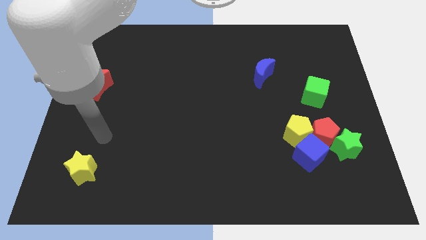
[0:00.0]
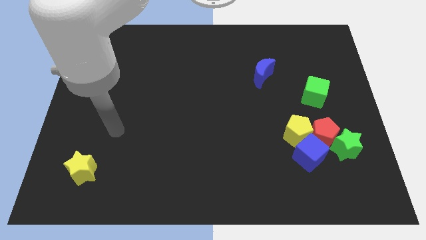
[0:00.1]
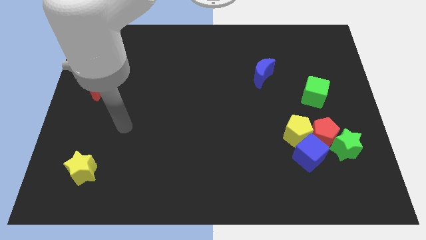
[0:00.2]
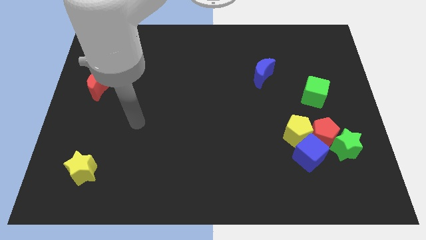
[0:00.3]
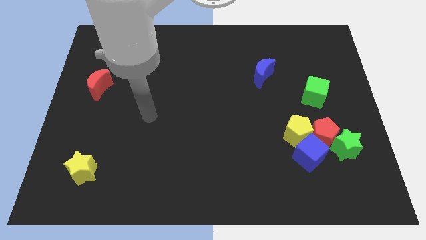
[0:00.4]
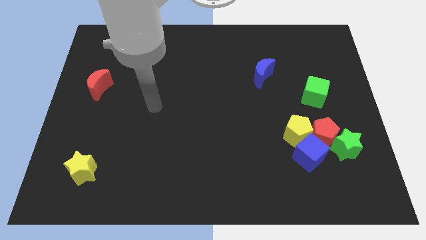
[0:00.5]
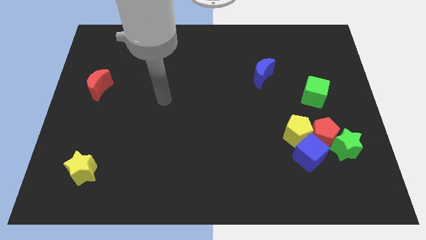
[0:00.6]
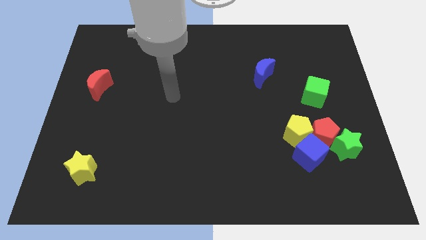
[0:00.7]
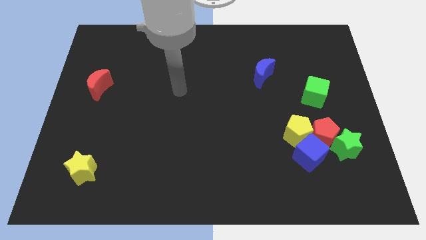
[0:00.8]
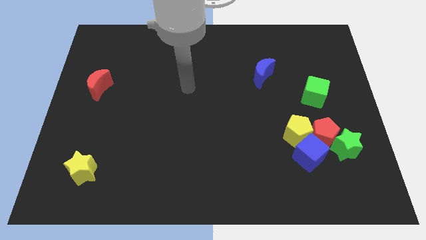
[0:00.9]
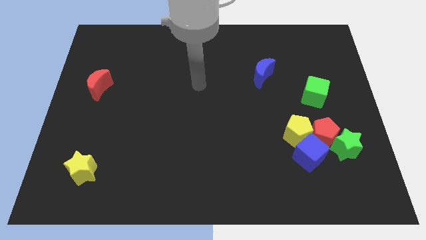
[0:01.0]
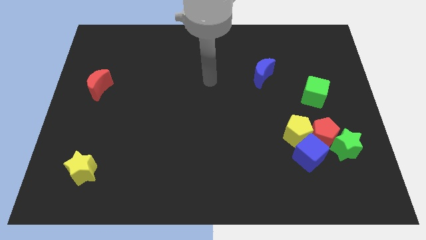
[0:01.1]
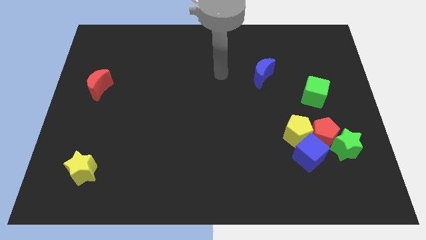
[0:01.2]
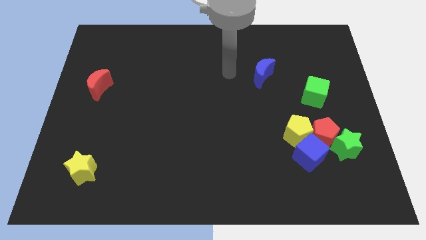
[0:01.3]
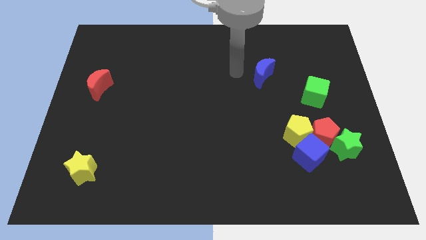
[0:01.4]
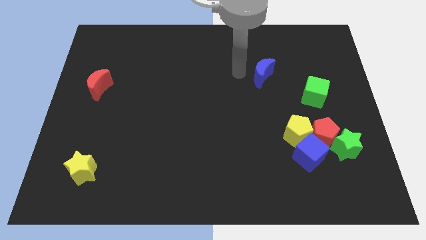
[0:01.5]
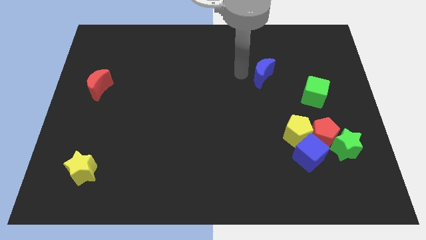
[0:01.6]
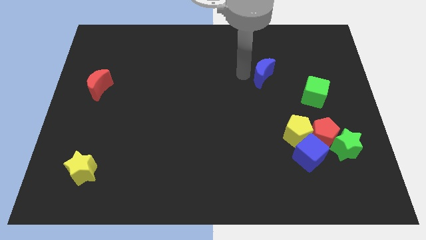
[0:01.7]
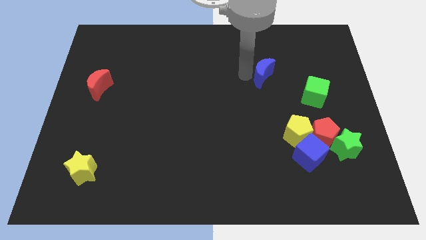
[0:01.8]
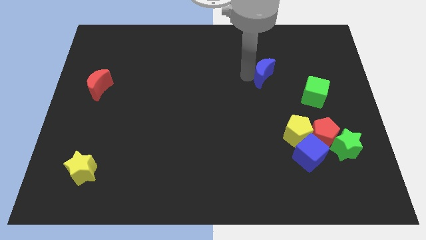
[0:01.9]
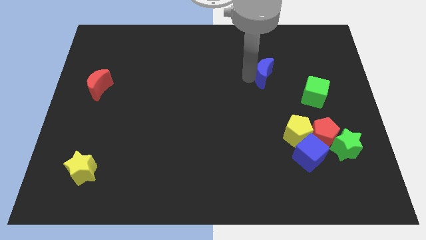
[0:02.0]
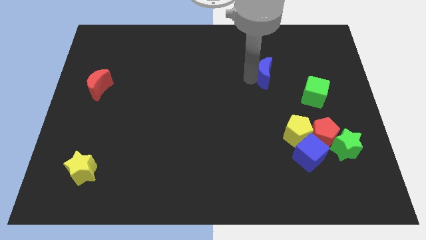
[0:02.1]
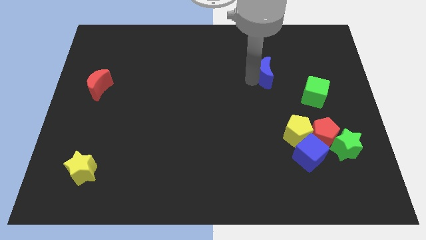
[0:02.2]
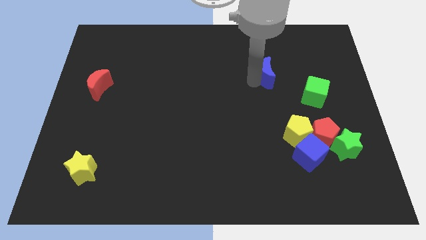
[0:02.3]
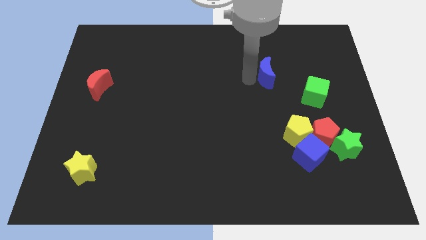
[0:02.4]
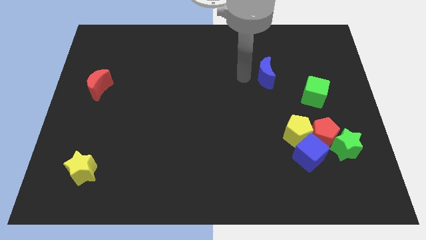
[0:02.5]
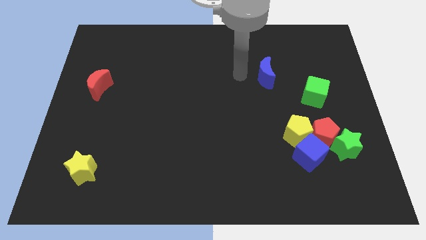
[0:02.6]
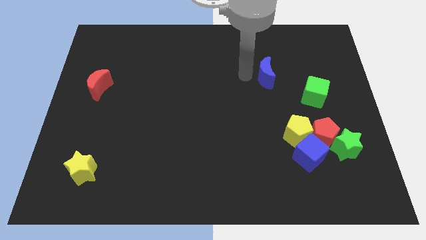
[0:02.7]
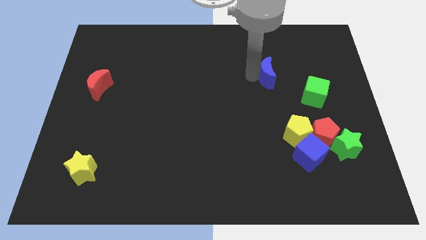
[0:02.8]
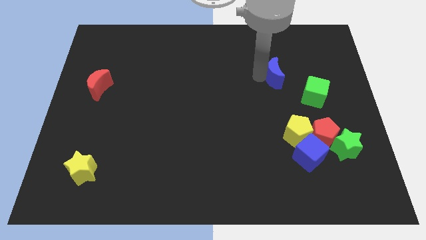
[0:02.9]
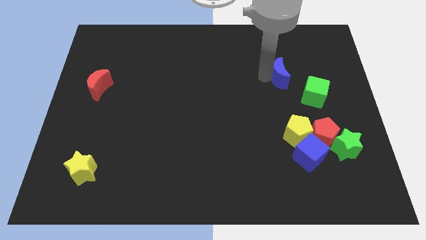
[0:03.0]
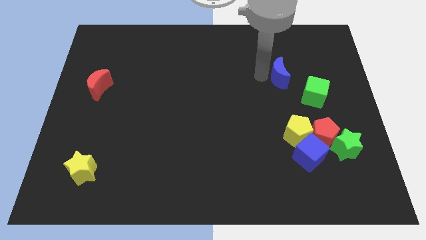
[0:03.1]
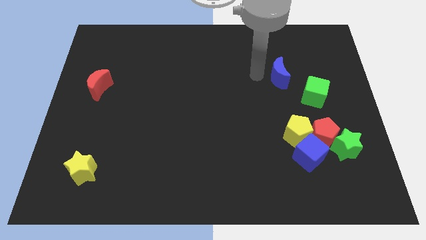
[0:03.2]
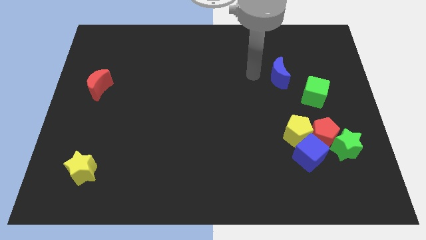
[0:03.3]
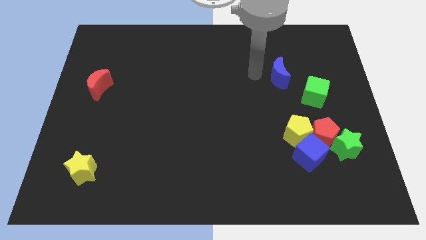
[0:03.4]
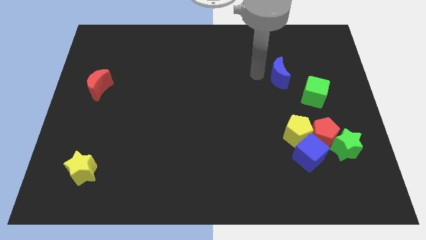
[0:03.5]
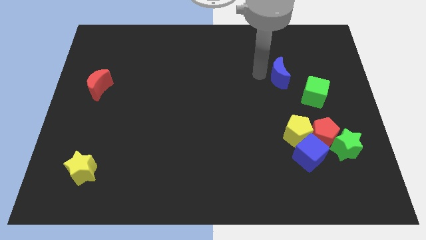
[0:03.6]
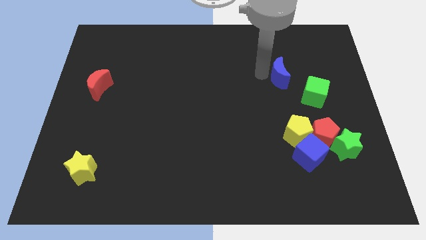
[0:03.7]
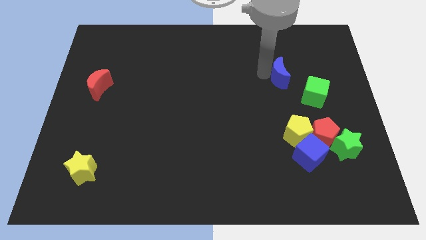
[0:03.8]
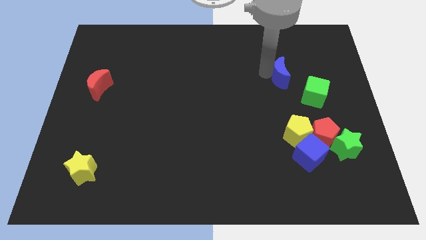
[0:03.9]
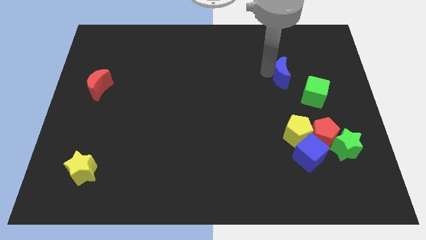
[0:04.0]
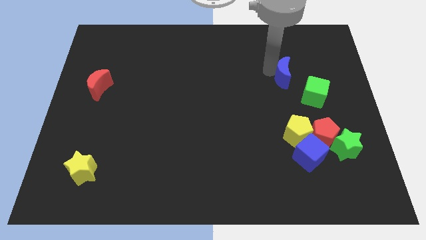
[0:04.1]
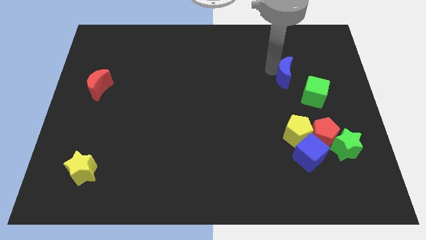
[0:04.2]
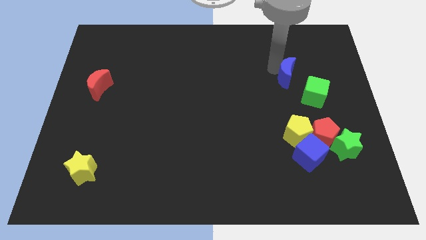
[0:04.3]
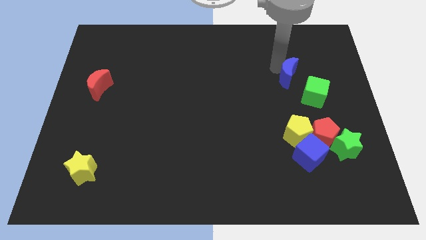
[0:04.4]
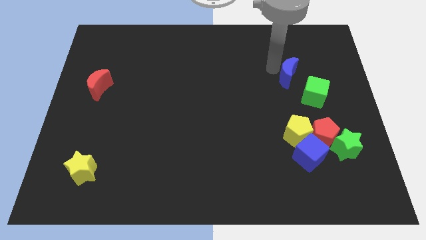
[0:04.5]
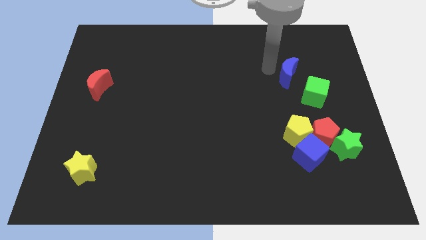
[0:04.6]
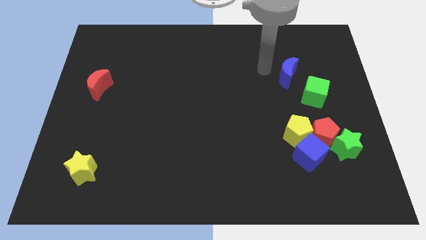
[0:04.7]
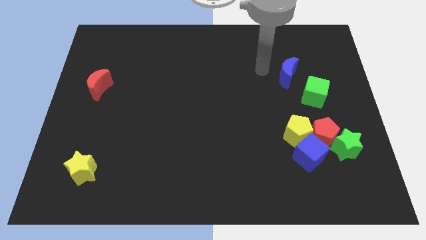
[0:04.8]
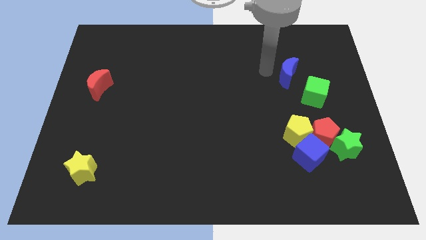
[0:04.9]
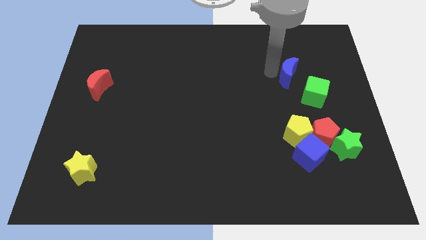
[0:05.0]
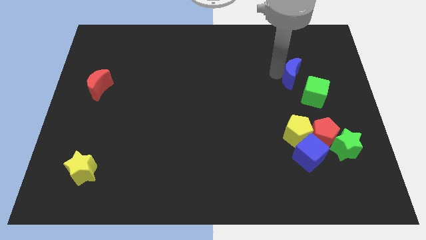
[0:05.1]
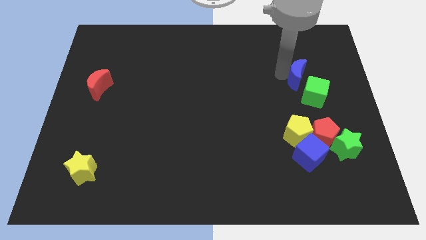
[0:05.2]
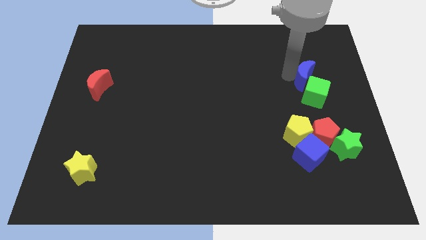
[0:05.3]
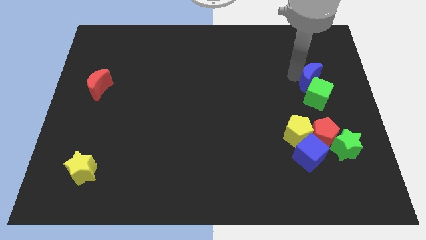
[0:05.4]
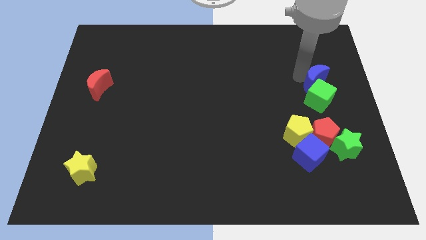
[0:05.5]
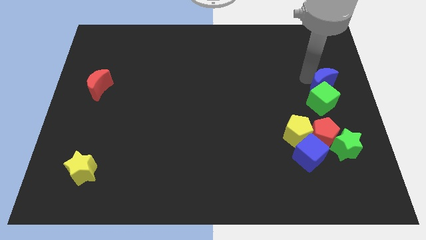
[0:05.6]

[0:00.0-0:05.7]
push the blue moon to the center right

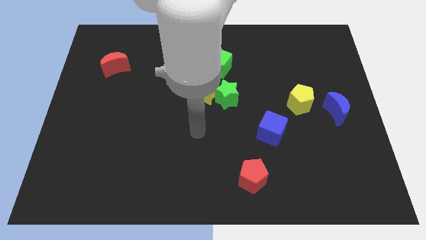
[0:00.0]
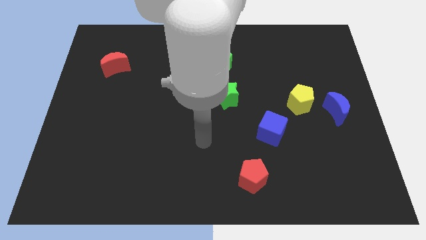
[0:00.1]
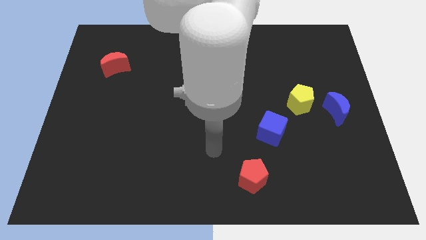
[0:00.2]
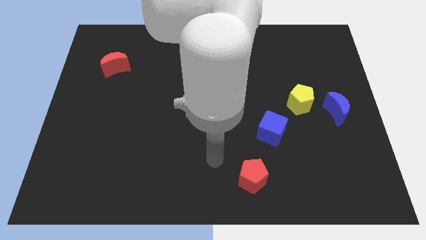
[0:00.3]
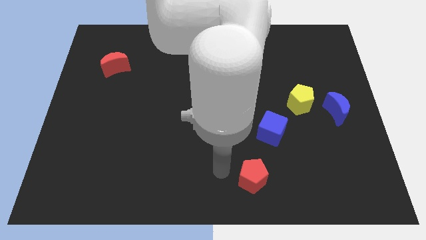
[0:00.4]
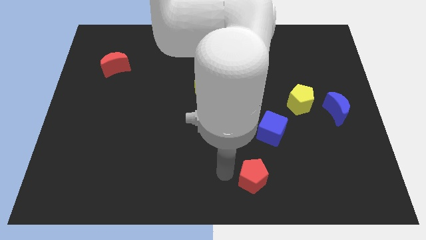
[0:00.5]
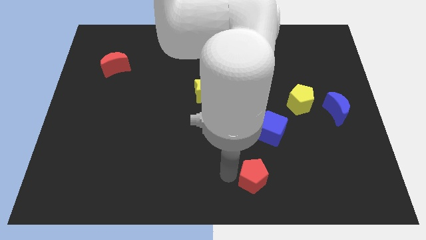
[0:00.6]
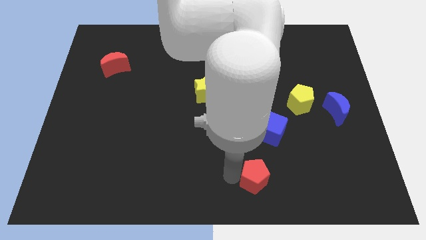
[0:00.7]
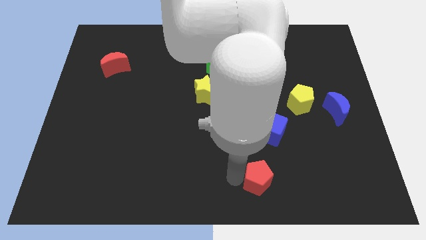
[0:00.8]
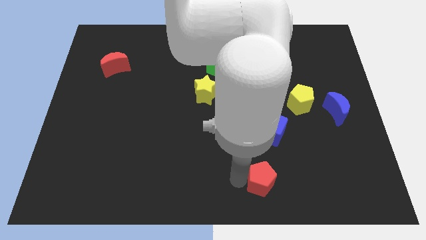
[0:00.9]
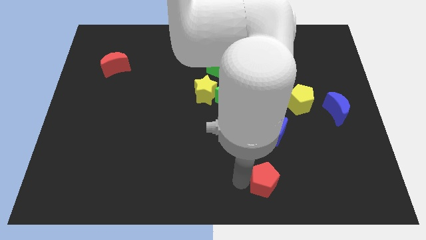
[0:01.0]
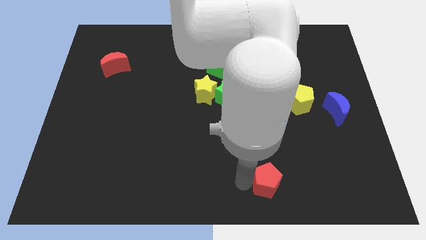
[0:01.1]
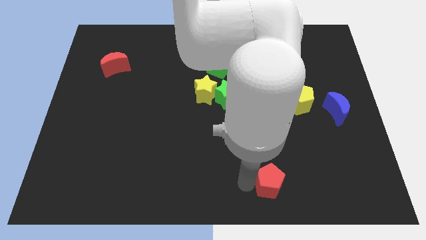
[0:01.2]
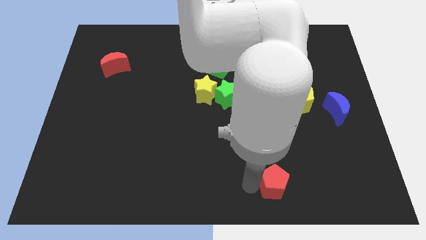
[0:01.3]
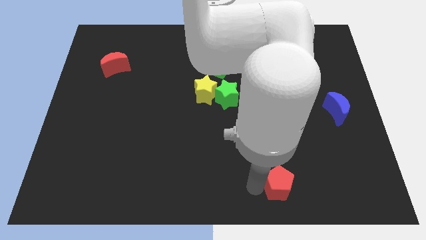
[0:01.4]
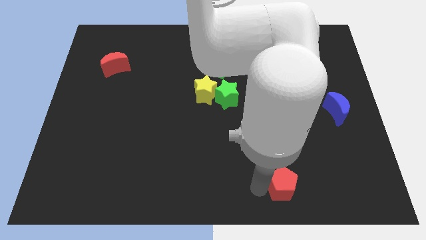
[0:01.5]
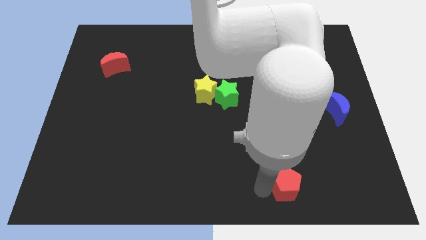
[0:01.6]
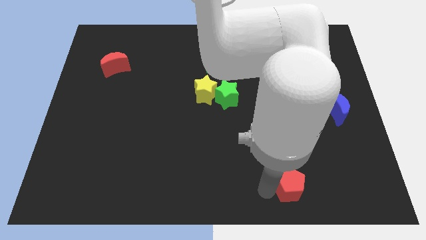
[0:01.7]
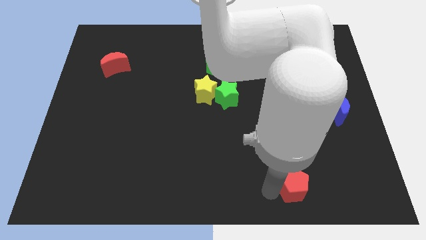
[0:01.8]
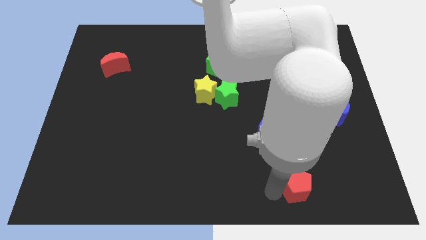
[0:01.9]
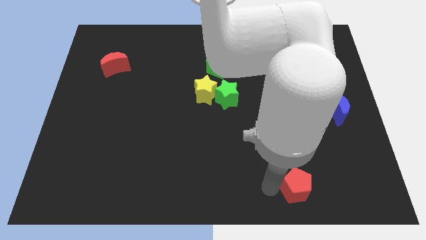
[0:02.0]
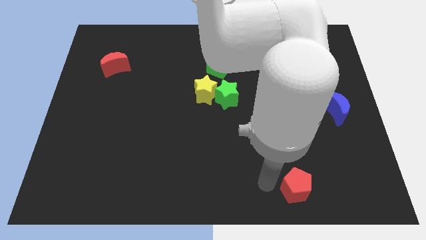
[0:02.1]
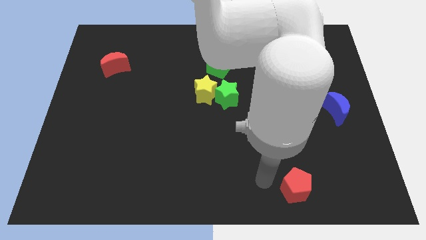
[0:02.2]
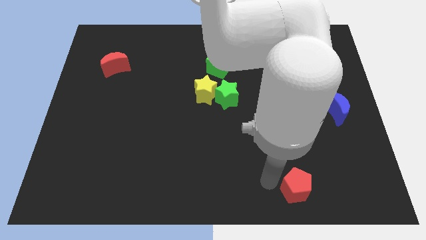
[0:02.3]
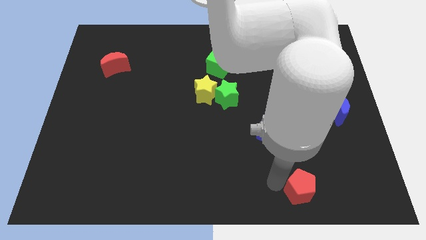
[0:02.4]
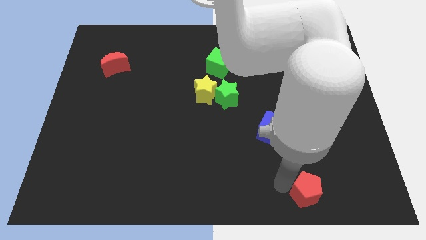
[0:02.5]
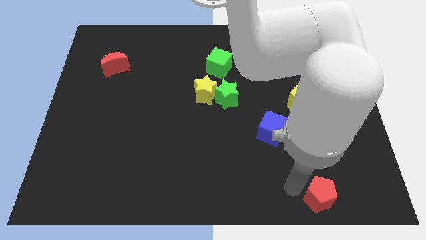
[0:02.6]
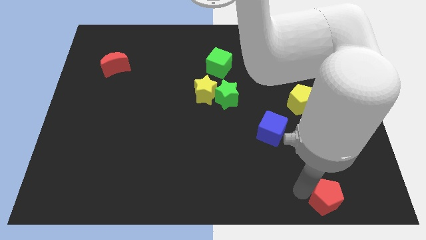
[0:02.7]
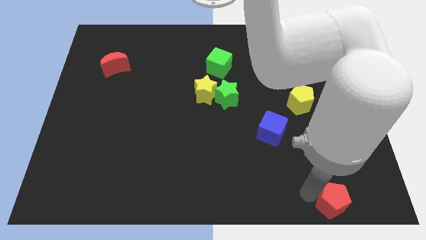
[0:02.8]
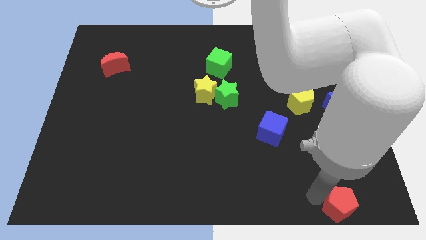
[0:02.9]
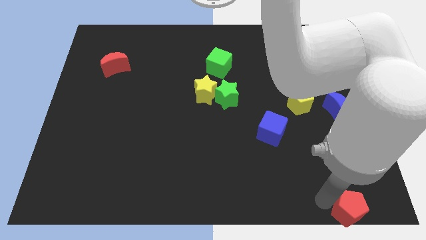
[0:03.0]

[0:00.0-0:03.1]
slide the red pentagon to the lower right corner
